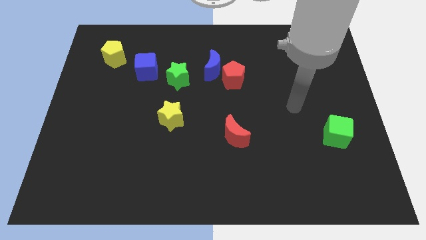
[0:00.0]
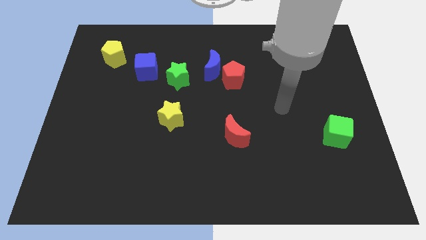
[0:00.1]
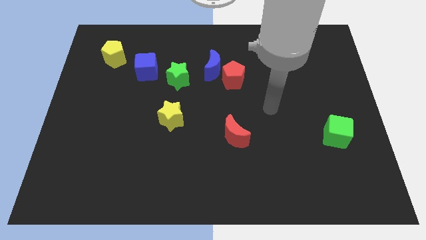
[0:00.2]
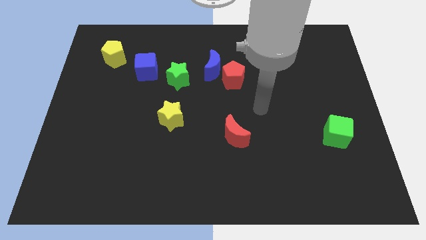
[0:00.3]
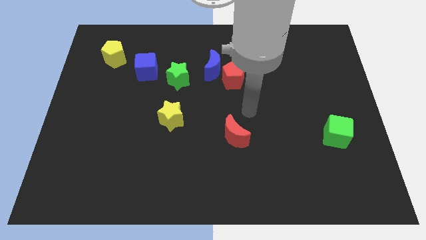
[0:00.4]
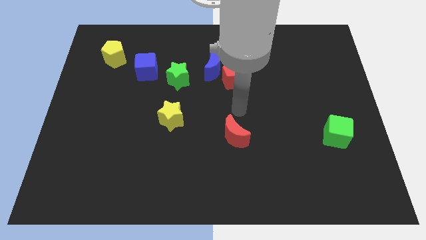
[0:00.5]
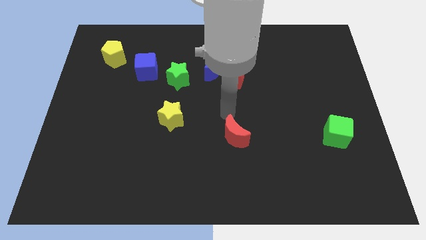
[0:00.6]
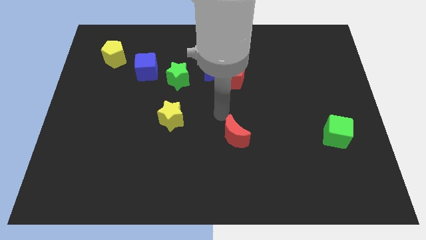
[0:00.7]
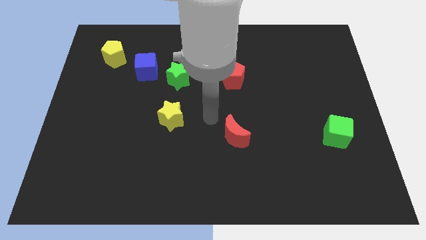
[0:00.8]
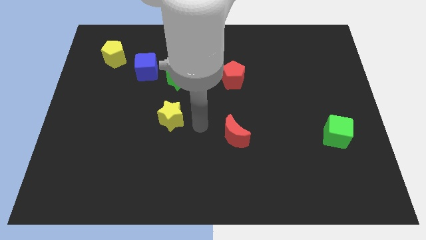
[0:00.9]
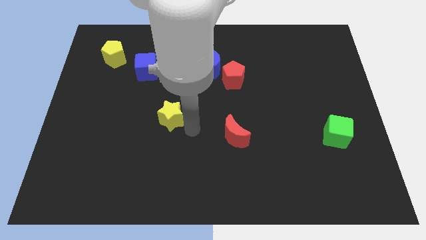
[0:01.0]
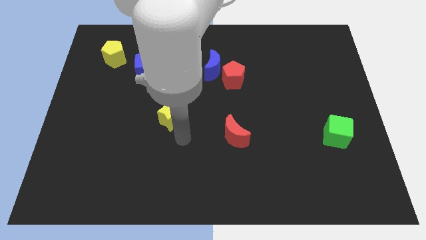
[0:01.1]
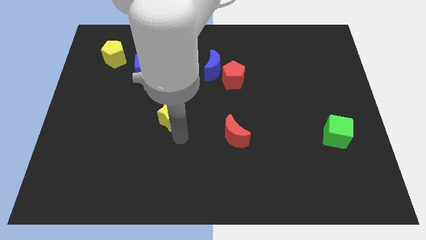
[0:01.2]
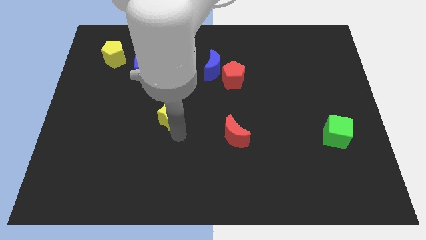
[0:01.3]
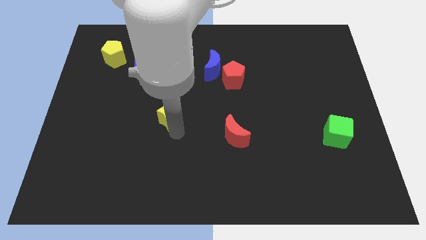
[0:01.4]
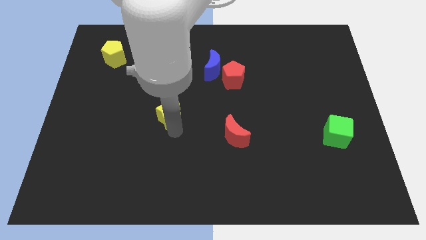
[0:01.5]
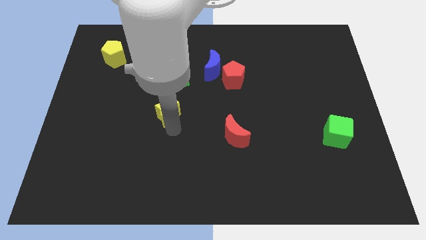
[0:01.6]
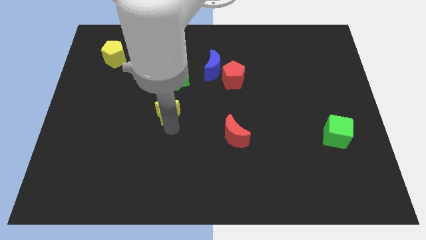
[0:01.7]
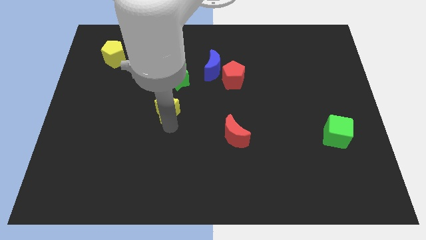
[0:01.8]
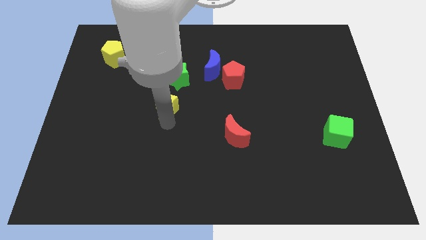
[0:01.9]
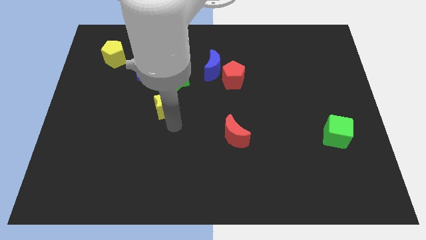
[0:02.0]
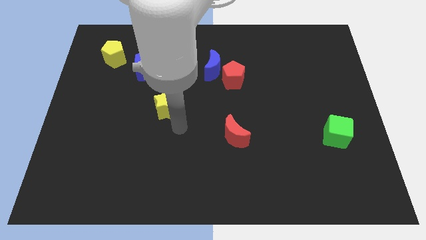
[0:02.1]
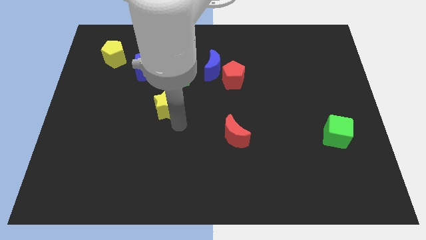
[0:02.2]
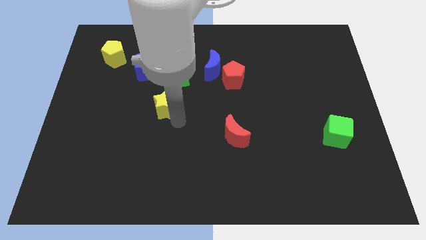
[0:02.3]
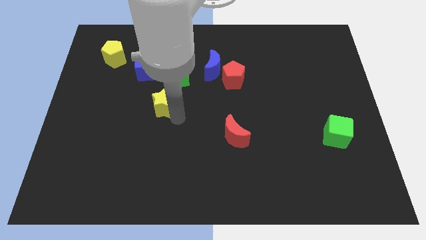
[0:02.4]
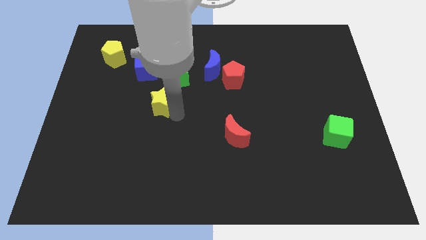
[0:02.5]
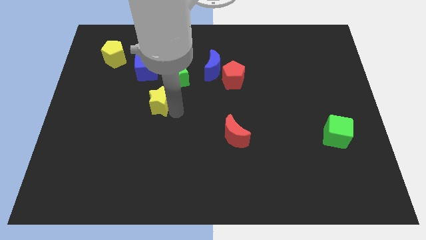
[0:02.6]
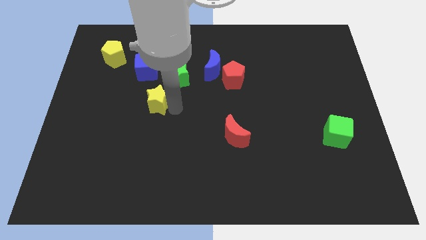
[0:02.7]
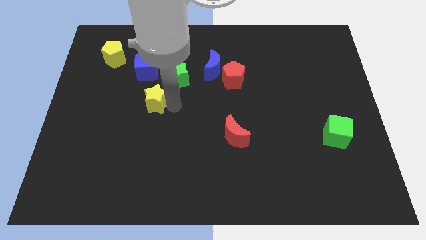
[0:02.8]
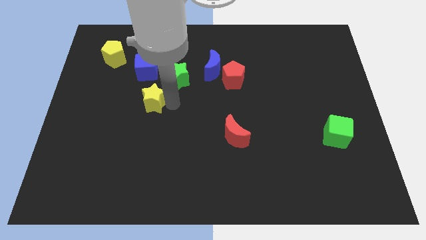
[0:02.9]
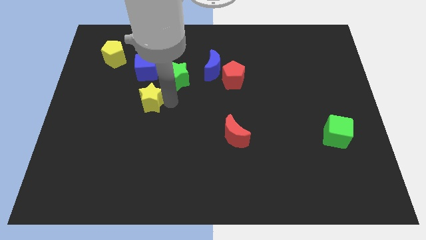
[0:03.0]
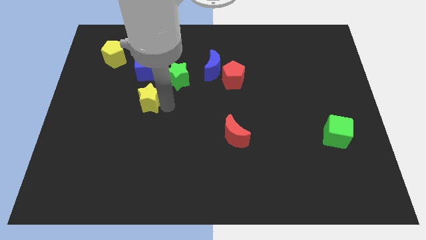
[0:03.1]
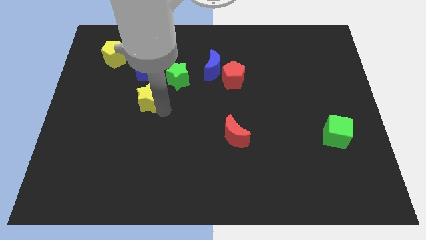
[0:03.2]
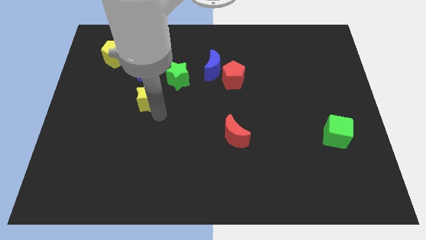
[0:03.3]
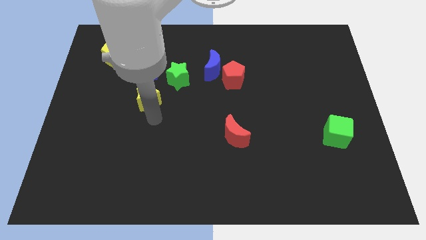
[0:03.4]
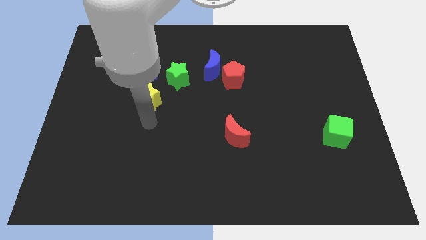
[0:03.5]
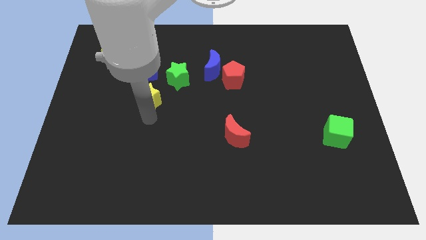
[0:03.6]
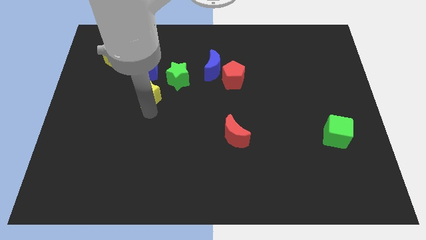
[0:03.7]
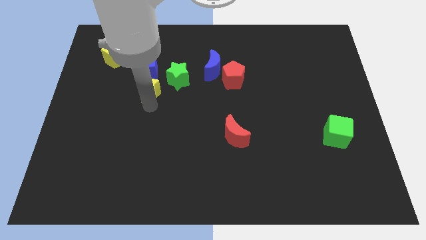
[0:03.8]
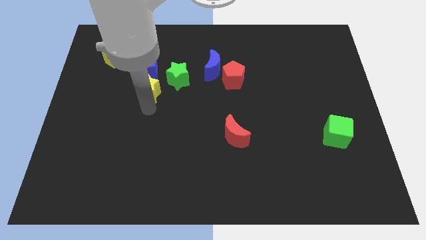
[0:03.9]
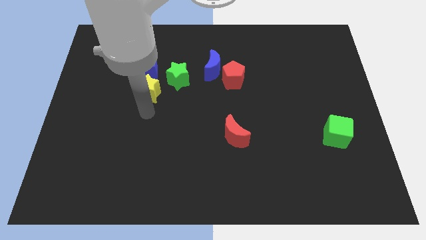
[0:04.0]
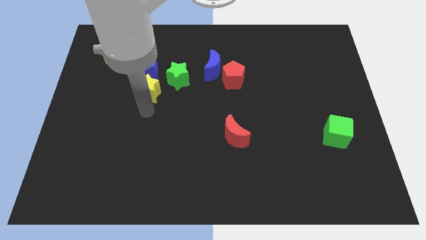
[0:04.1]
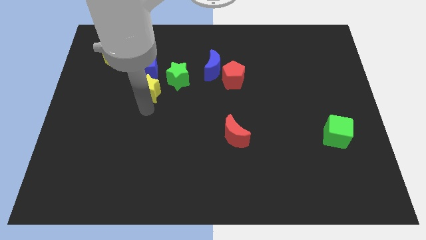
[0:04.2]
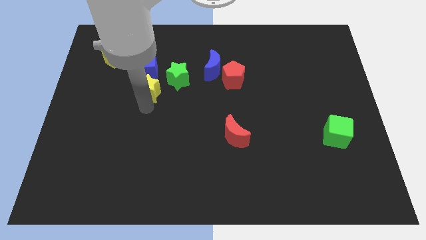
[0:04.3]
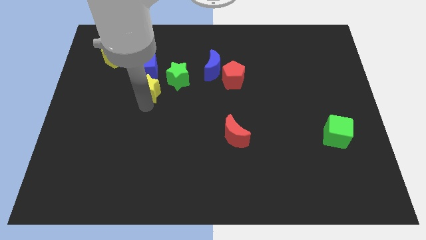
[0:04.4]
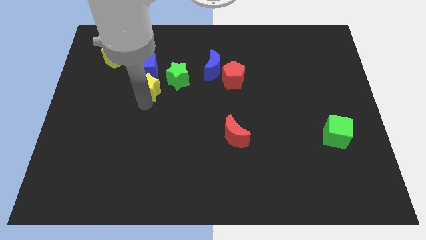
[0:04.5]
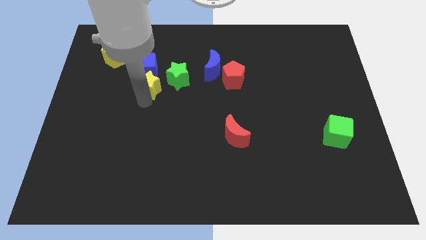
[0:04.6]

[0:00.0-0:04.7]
slide the yellow star next to the blue cube

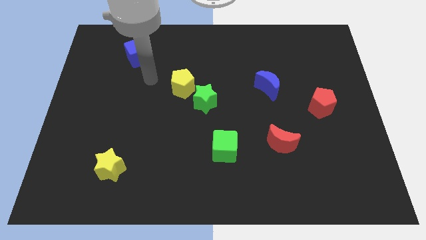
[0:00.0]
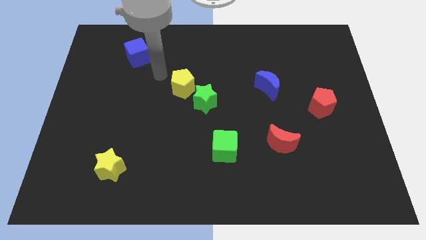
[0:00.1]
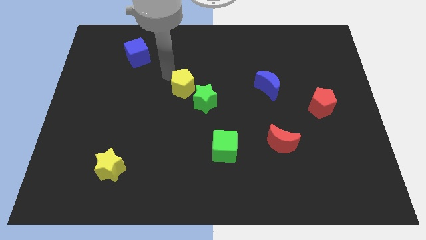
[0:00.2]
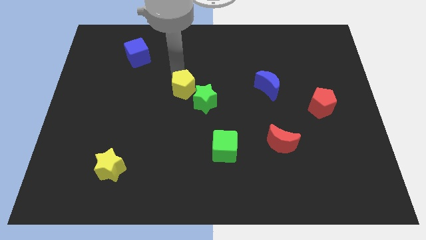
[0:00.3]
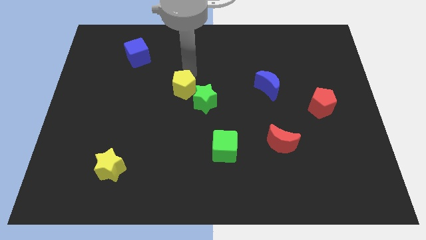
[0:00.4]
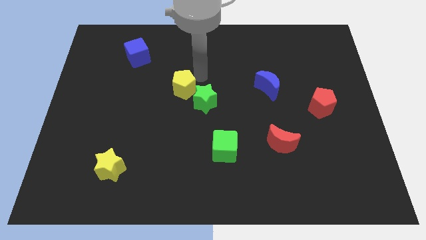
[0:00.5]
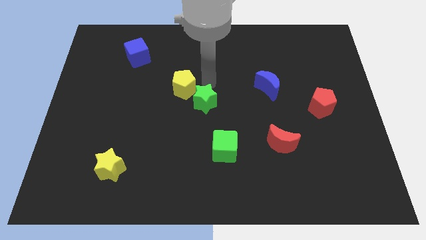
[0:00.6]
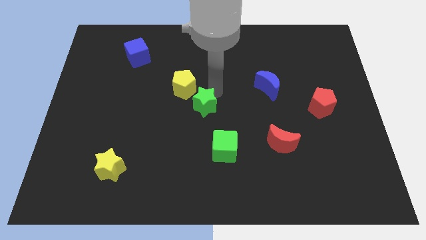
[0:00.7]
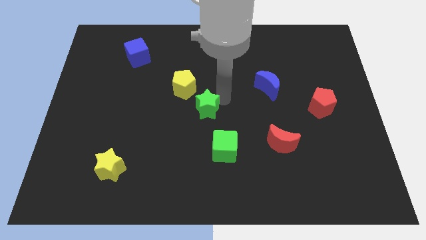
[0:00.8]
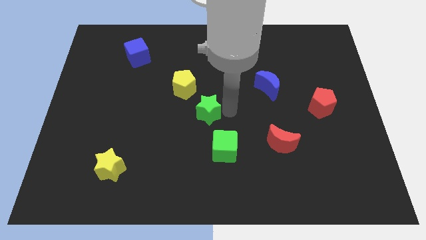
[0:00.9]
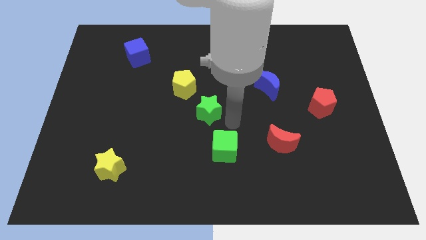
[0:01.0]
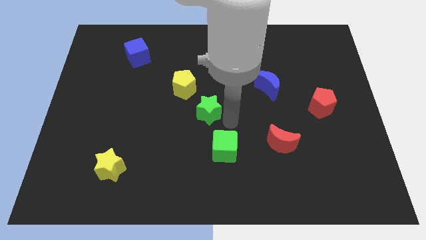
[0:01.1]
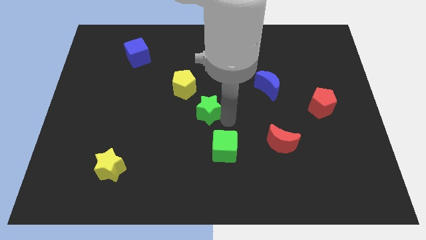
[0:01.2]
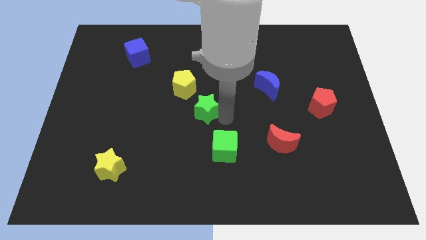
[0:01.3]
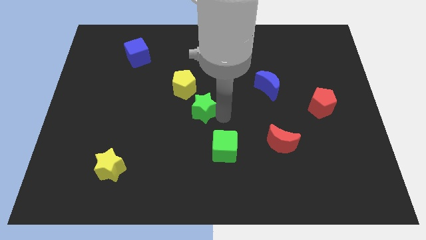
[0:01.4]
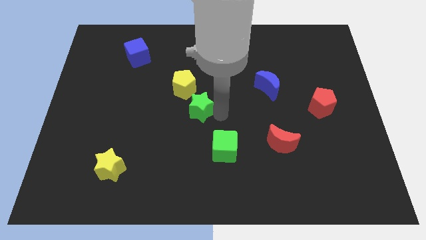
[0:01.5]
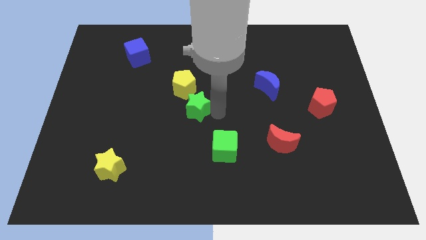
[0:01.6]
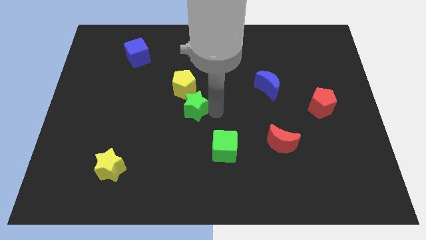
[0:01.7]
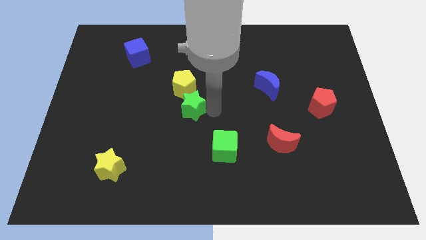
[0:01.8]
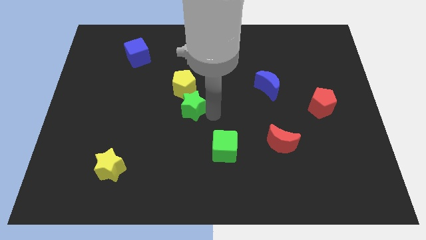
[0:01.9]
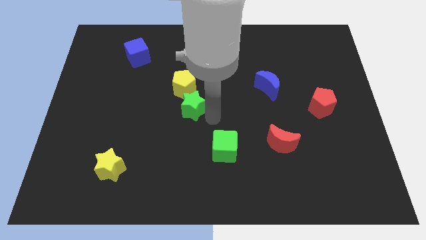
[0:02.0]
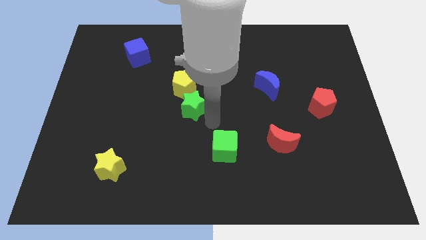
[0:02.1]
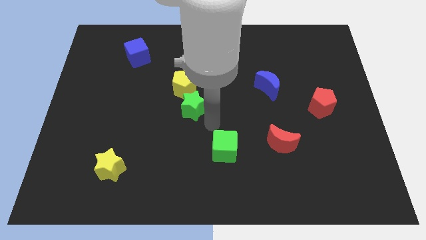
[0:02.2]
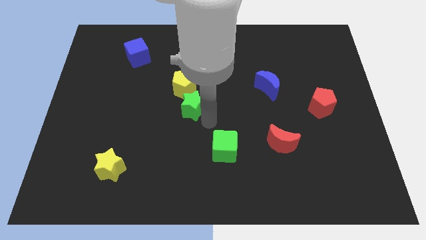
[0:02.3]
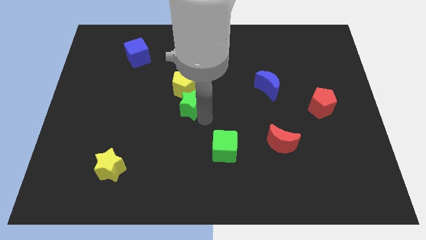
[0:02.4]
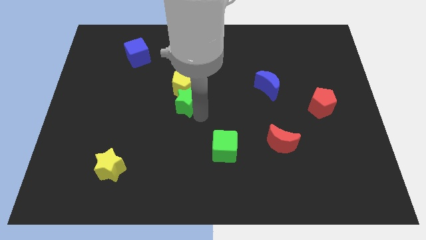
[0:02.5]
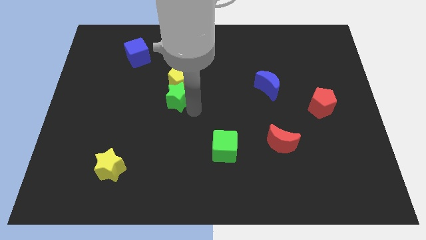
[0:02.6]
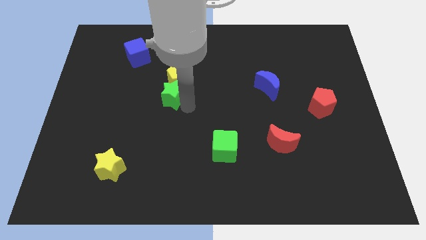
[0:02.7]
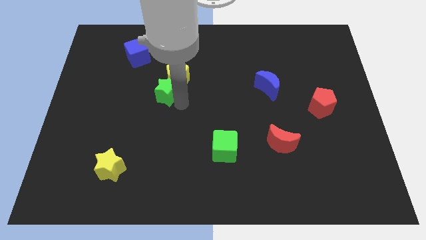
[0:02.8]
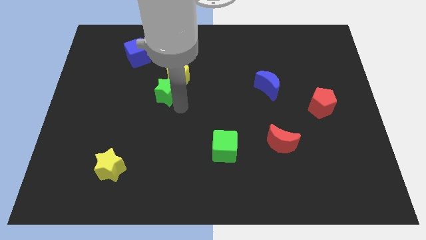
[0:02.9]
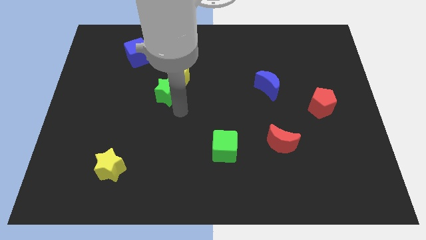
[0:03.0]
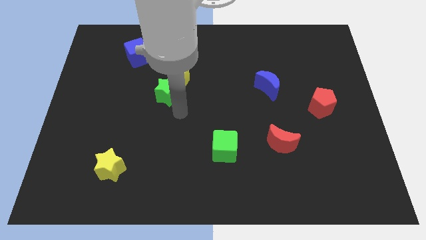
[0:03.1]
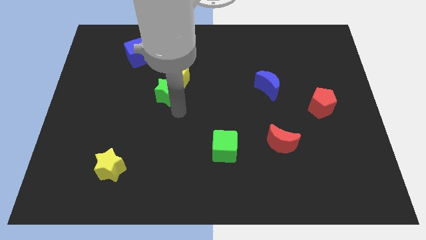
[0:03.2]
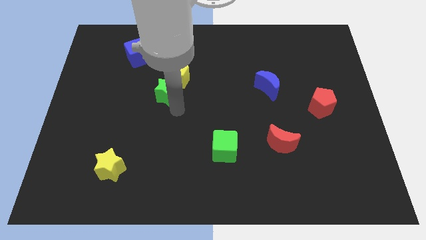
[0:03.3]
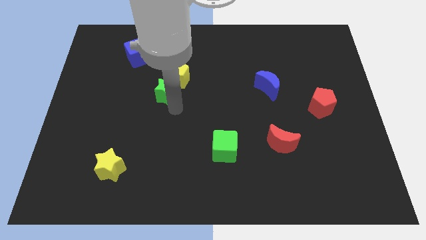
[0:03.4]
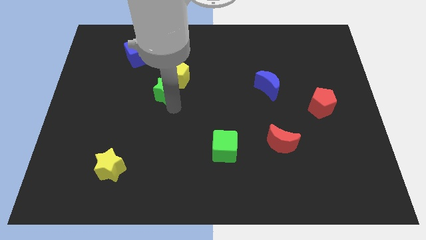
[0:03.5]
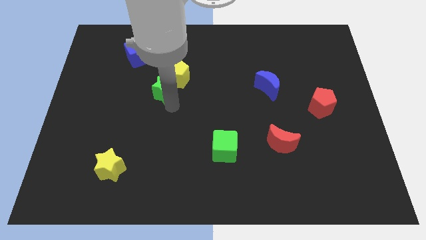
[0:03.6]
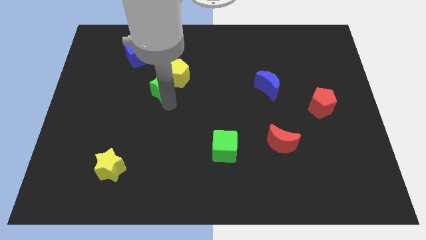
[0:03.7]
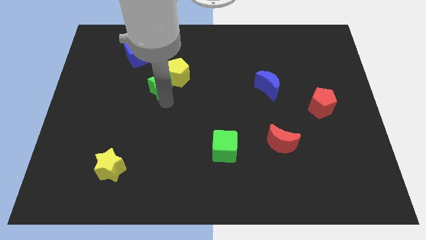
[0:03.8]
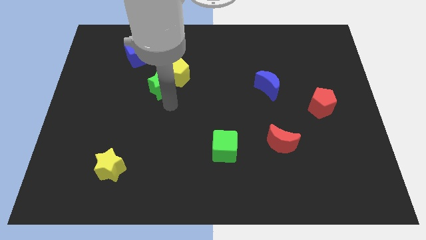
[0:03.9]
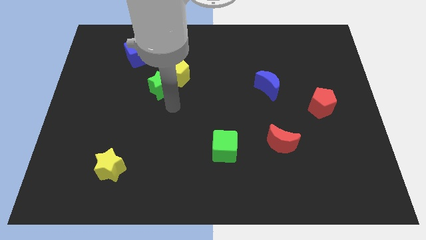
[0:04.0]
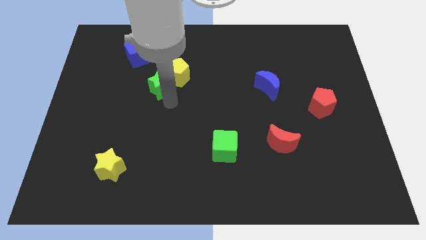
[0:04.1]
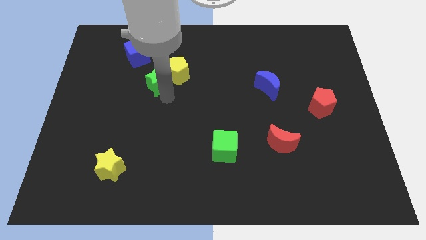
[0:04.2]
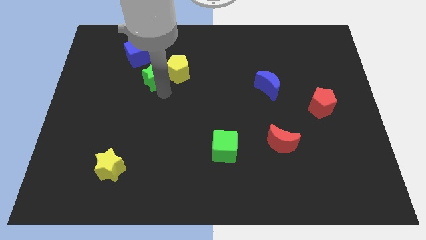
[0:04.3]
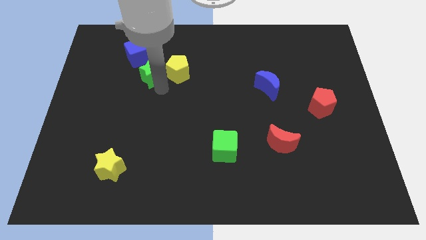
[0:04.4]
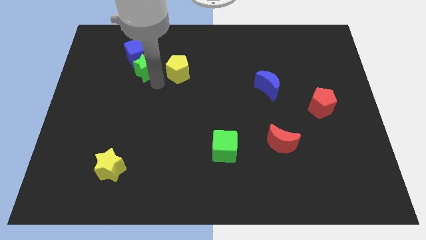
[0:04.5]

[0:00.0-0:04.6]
move the green star to the blue cube
